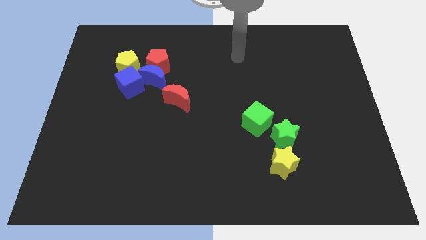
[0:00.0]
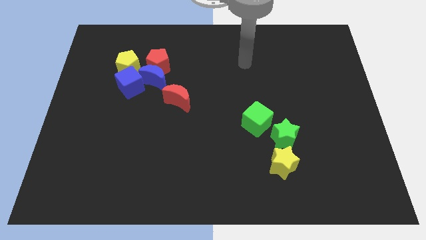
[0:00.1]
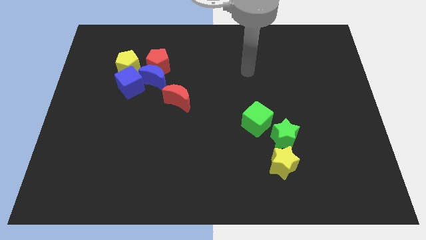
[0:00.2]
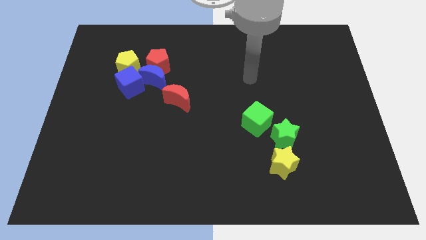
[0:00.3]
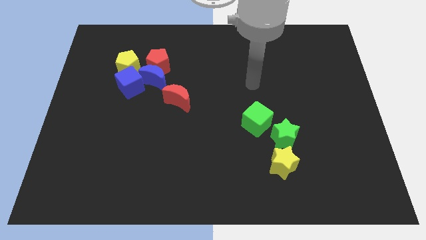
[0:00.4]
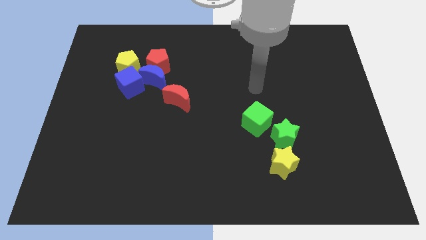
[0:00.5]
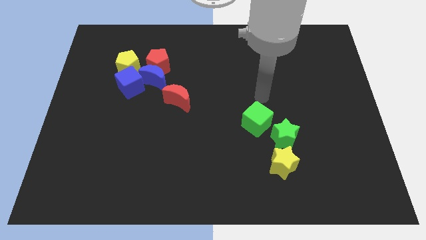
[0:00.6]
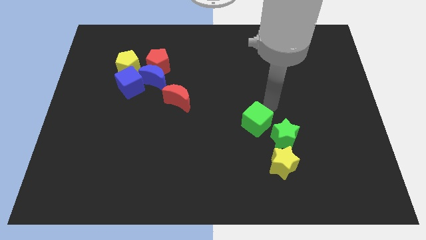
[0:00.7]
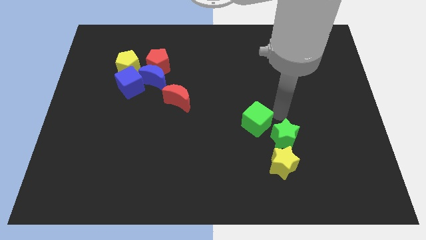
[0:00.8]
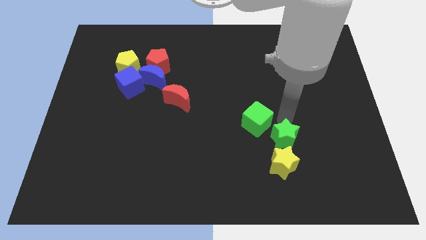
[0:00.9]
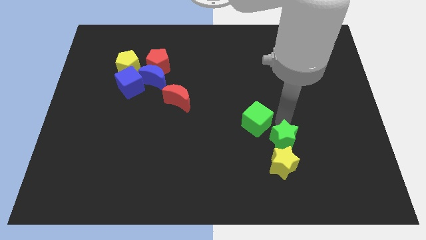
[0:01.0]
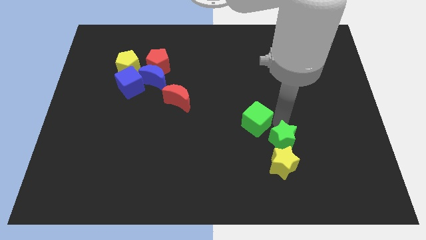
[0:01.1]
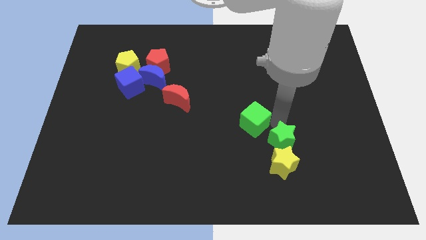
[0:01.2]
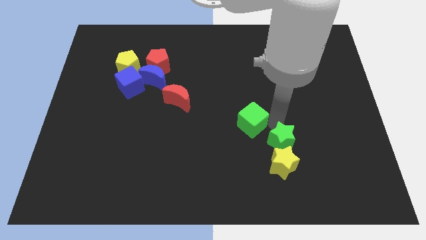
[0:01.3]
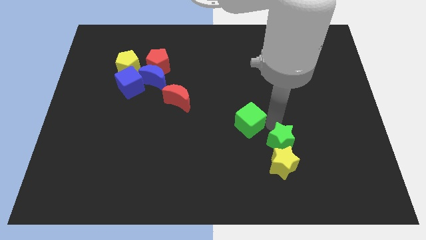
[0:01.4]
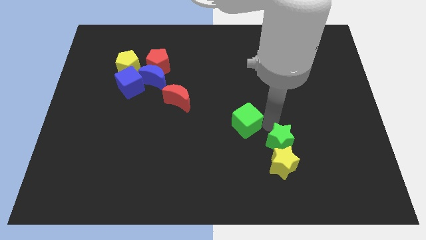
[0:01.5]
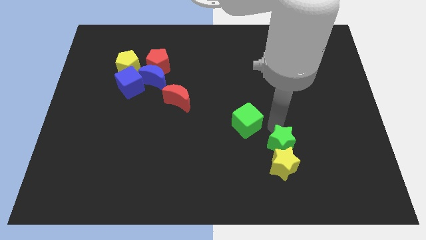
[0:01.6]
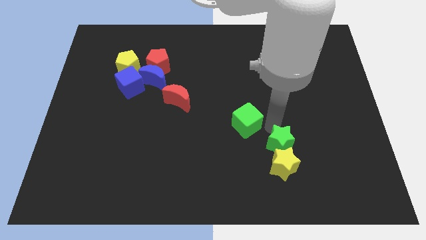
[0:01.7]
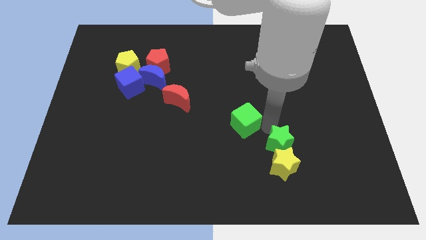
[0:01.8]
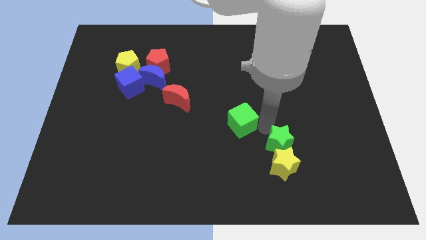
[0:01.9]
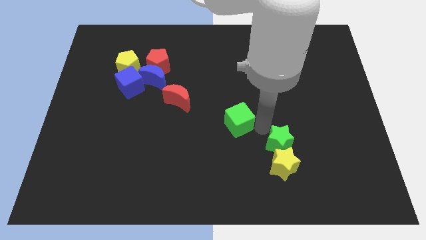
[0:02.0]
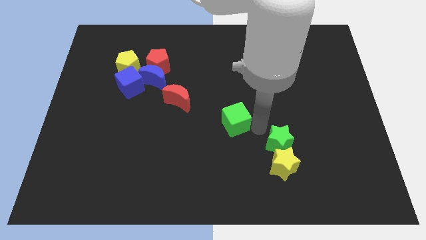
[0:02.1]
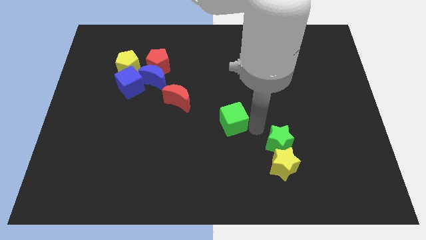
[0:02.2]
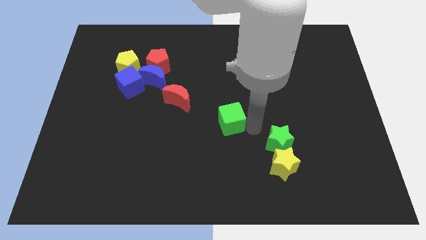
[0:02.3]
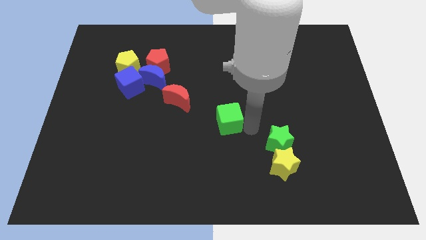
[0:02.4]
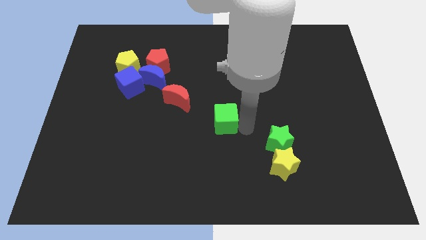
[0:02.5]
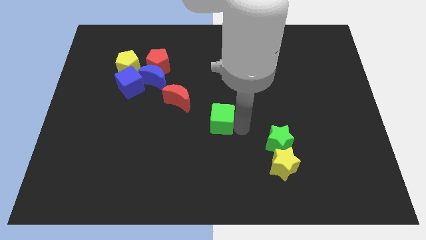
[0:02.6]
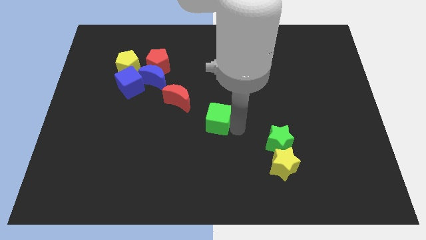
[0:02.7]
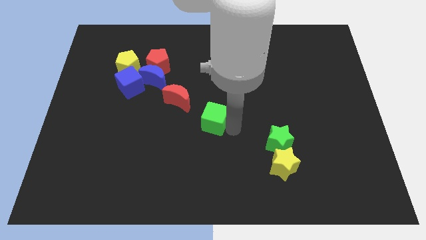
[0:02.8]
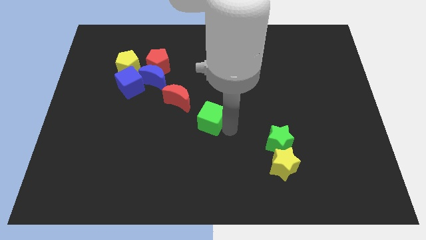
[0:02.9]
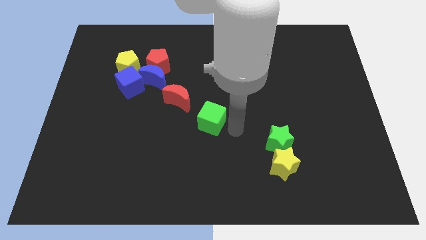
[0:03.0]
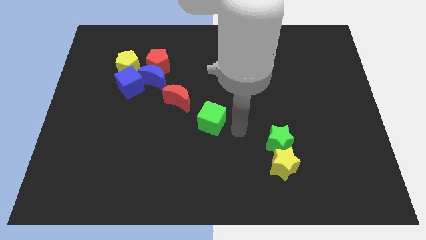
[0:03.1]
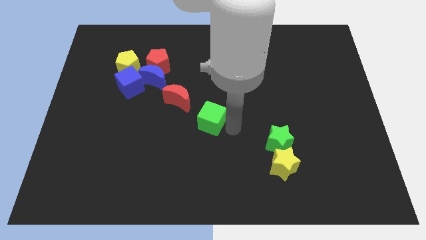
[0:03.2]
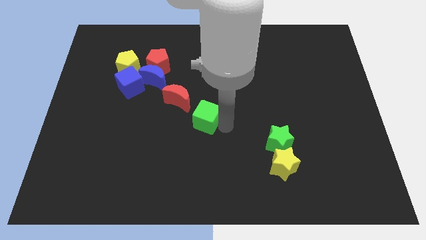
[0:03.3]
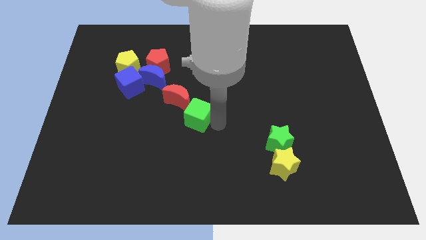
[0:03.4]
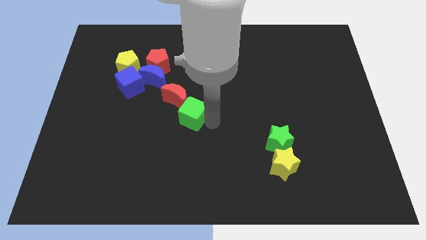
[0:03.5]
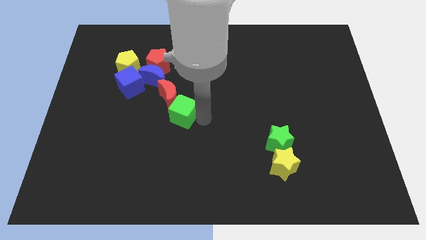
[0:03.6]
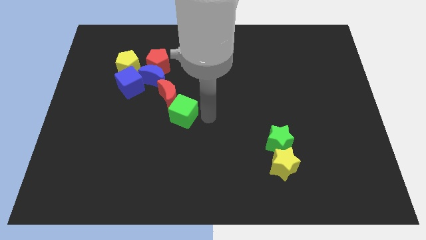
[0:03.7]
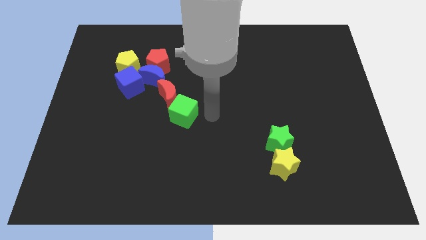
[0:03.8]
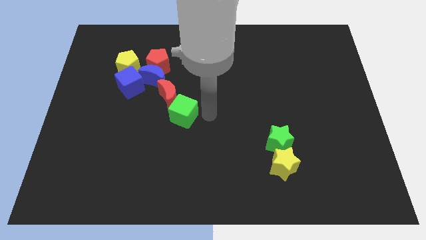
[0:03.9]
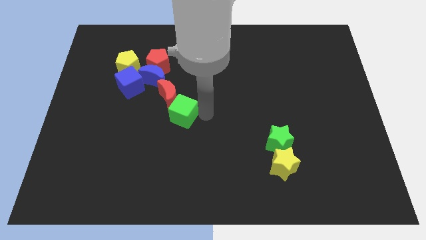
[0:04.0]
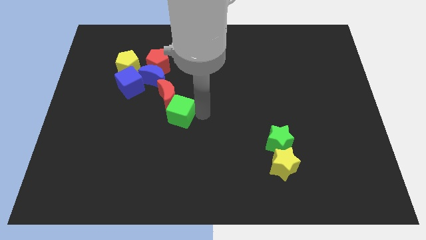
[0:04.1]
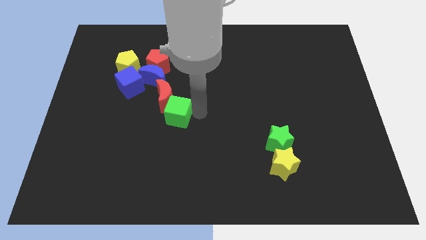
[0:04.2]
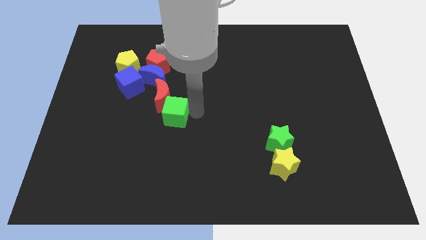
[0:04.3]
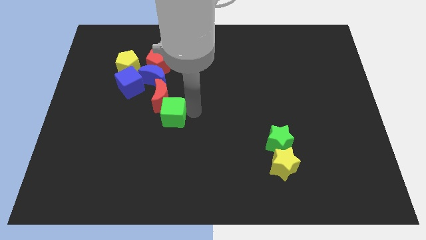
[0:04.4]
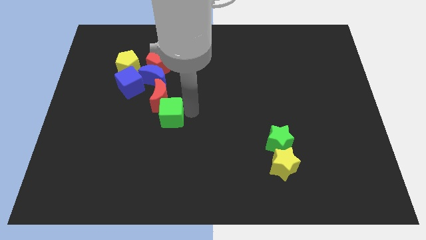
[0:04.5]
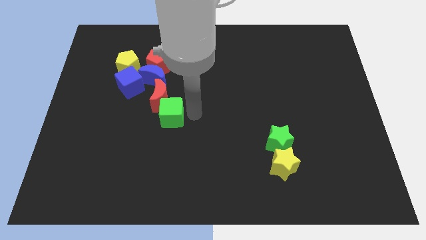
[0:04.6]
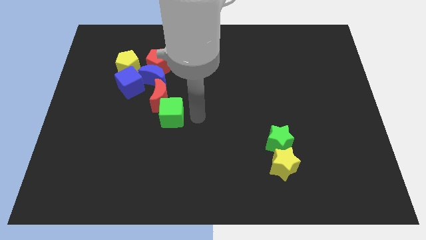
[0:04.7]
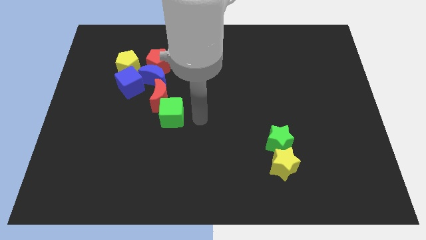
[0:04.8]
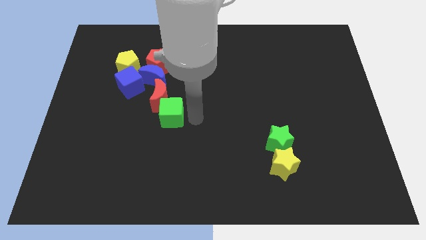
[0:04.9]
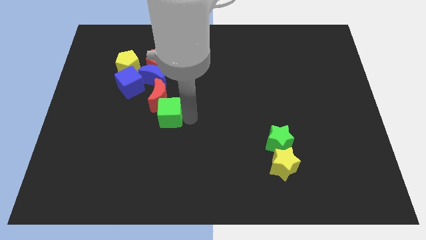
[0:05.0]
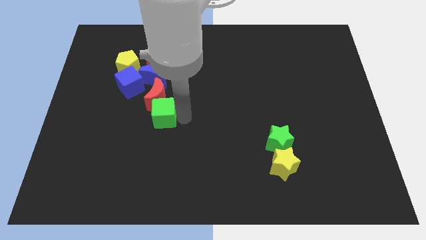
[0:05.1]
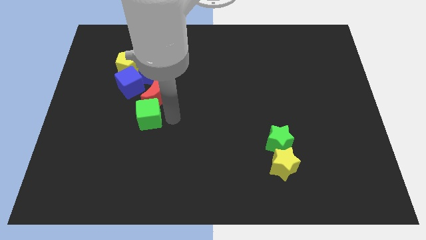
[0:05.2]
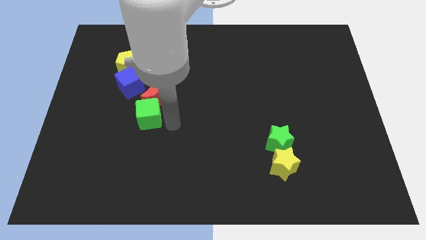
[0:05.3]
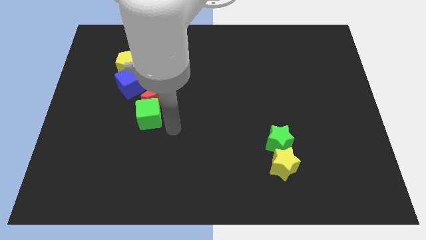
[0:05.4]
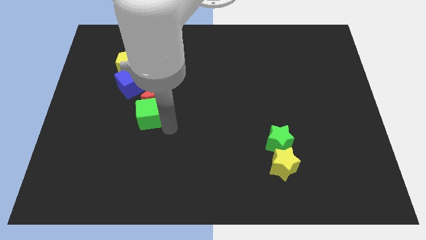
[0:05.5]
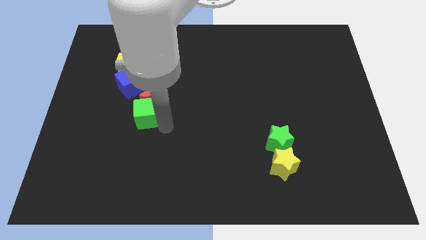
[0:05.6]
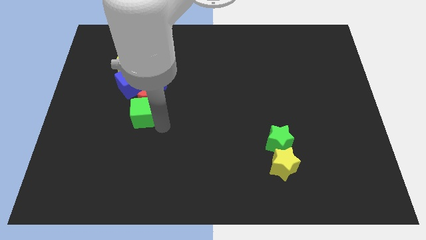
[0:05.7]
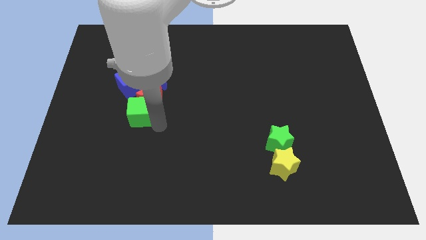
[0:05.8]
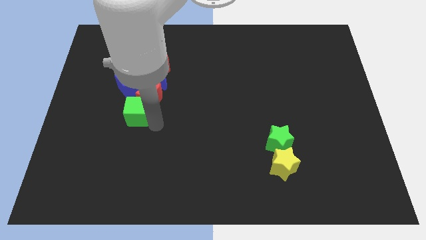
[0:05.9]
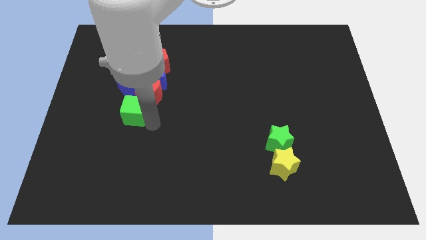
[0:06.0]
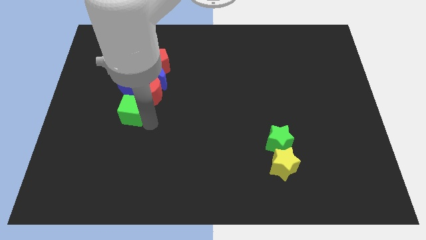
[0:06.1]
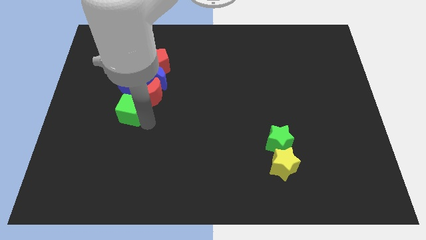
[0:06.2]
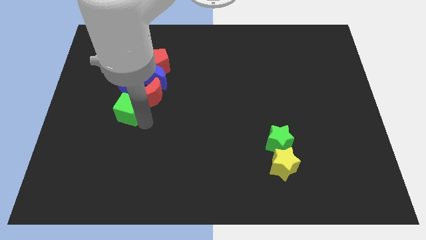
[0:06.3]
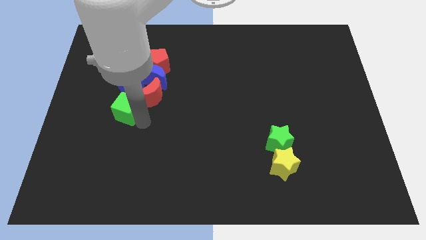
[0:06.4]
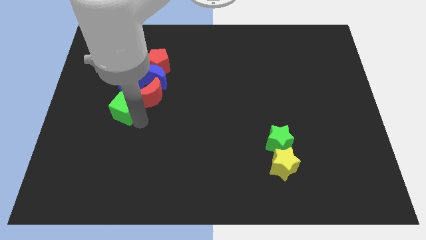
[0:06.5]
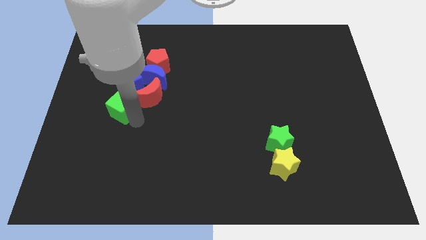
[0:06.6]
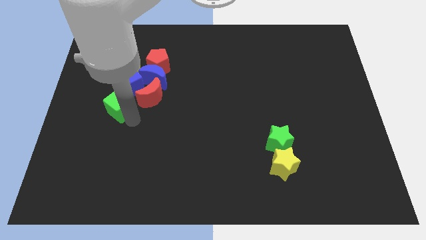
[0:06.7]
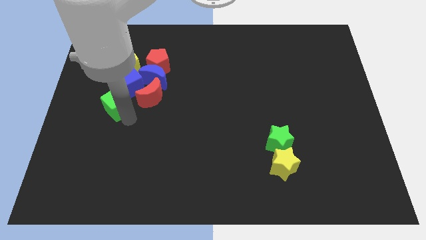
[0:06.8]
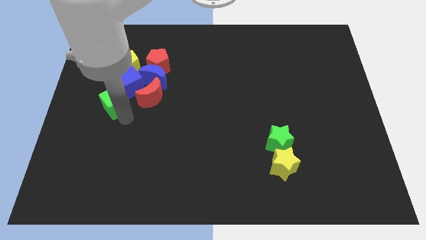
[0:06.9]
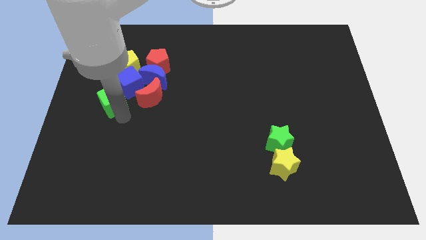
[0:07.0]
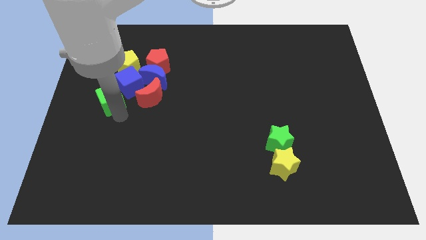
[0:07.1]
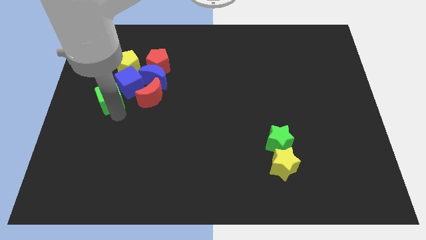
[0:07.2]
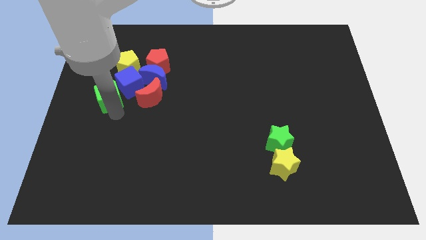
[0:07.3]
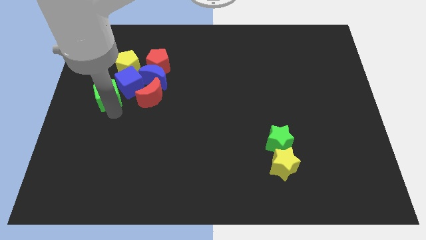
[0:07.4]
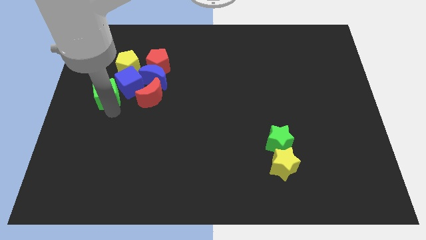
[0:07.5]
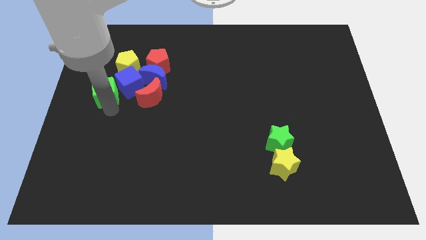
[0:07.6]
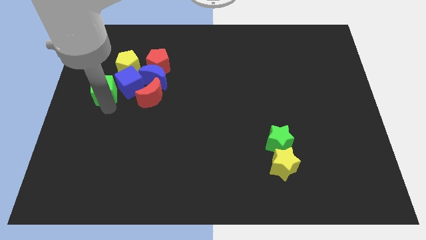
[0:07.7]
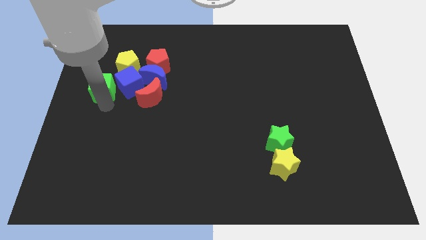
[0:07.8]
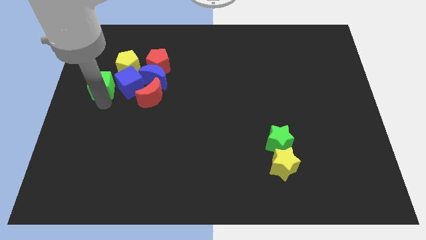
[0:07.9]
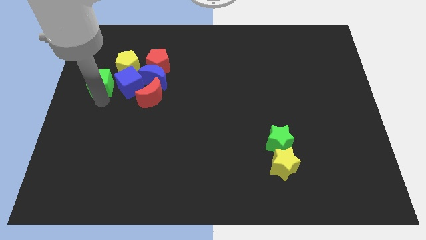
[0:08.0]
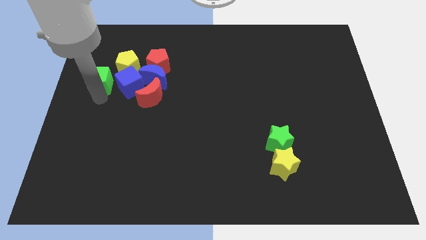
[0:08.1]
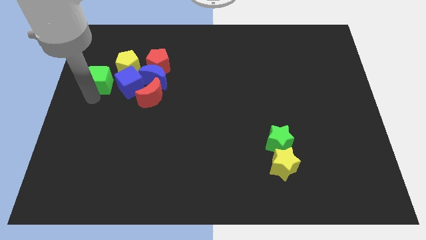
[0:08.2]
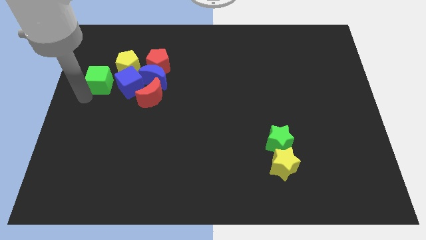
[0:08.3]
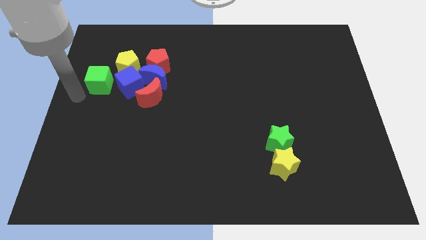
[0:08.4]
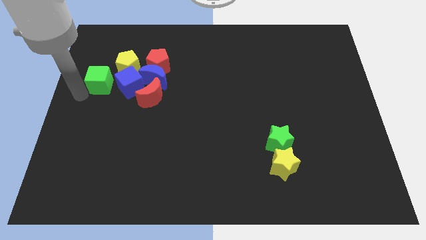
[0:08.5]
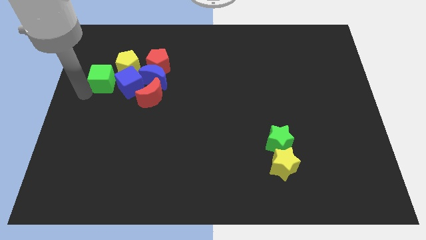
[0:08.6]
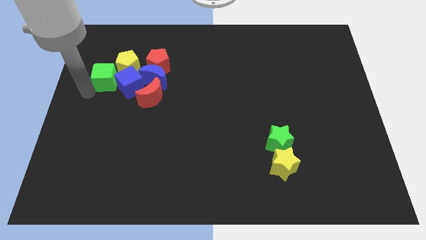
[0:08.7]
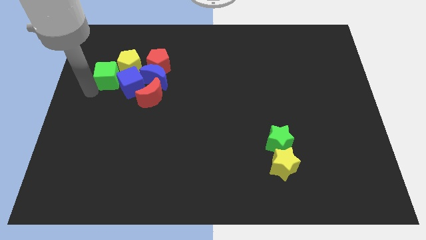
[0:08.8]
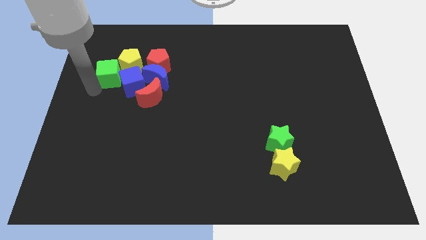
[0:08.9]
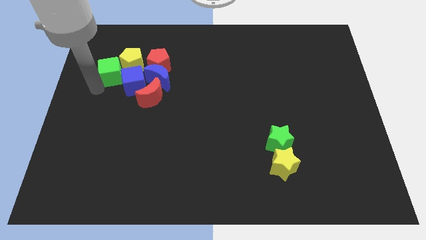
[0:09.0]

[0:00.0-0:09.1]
move the green cube towards the yellow pentagon
